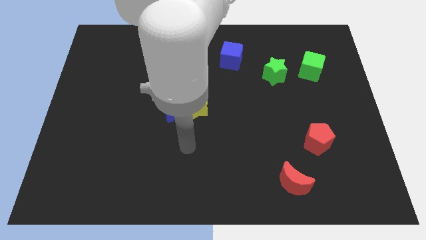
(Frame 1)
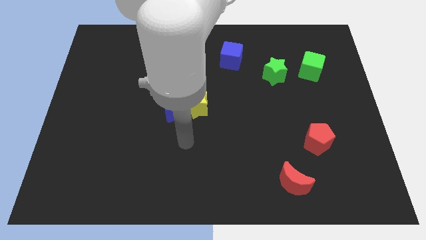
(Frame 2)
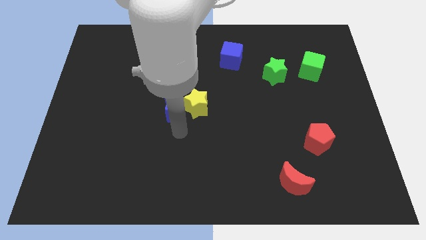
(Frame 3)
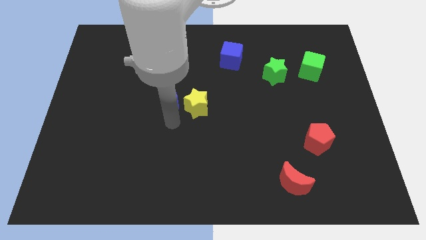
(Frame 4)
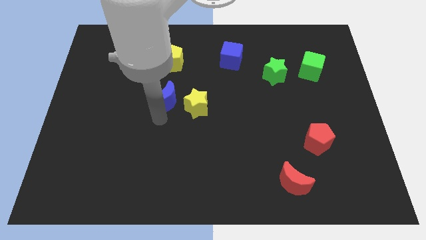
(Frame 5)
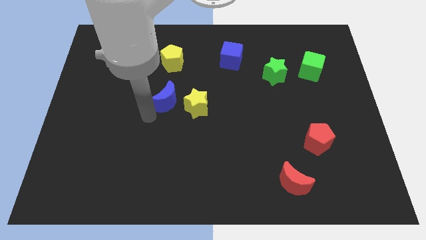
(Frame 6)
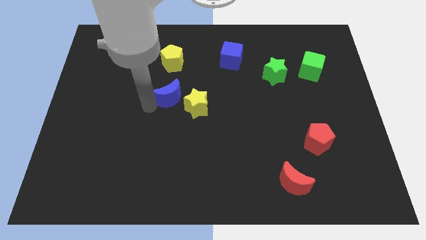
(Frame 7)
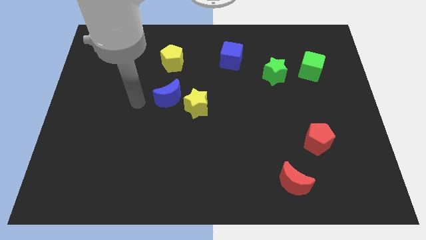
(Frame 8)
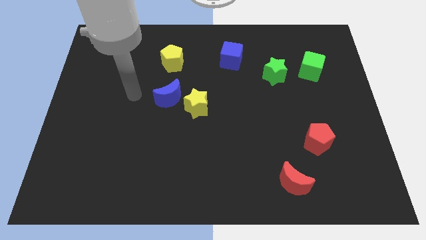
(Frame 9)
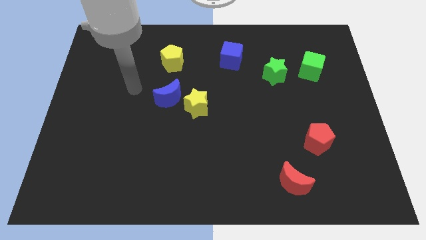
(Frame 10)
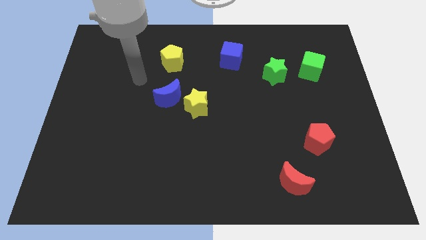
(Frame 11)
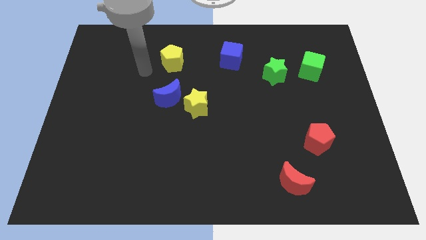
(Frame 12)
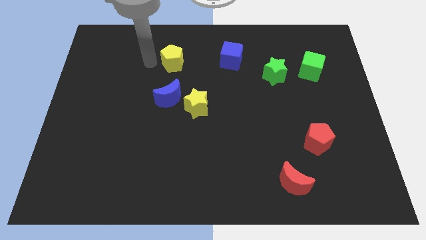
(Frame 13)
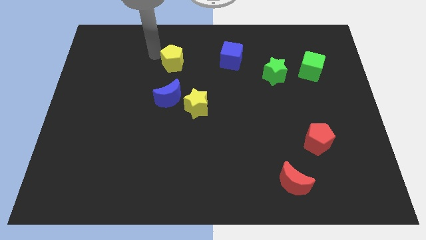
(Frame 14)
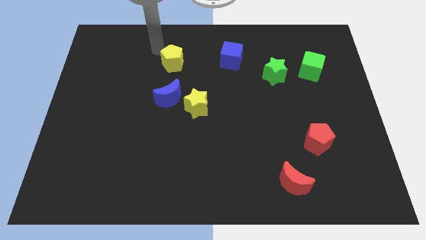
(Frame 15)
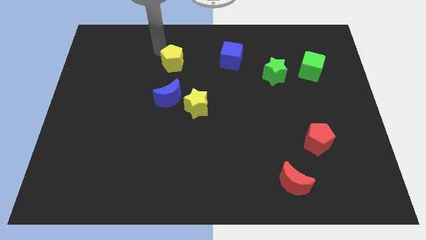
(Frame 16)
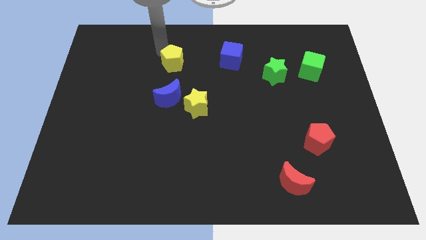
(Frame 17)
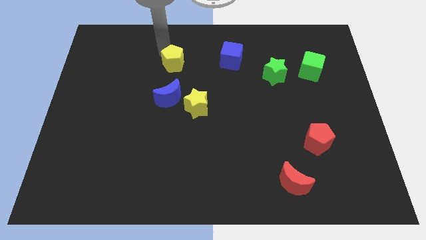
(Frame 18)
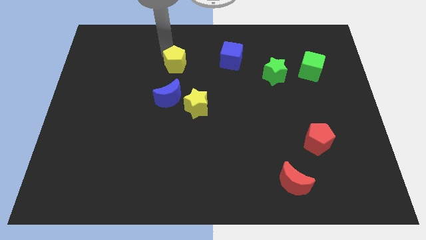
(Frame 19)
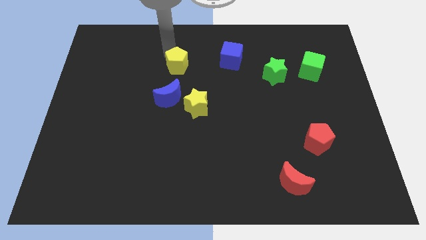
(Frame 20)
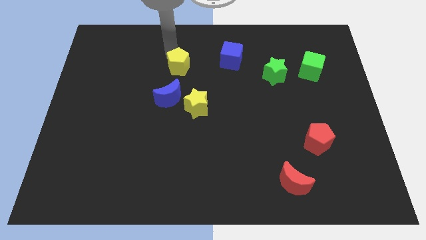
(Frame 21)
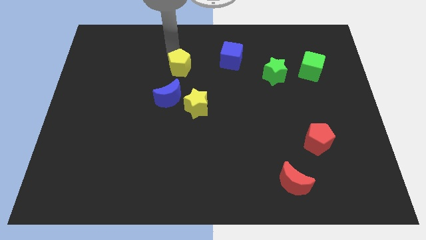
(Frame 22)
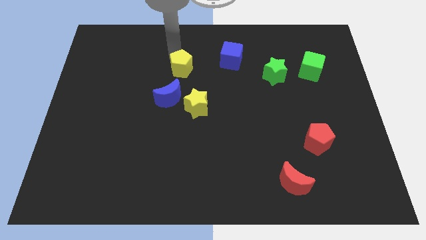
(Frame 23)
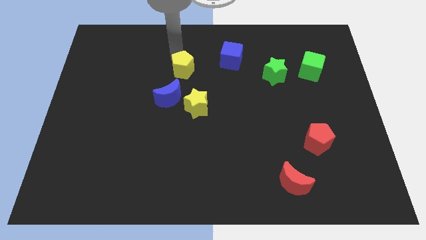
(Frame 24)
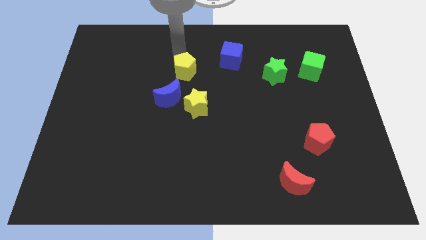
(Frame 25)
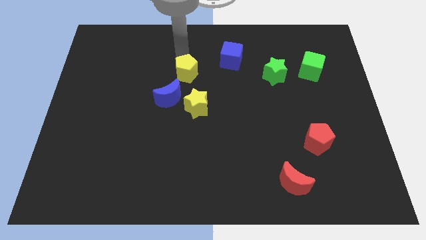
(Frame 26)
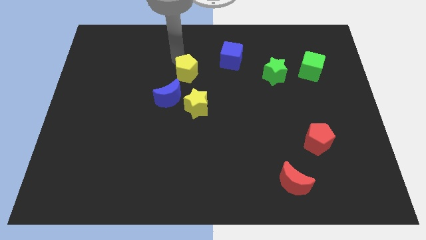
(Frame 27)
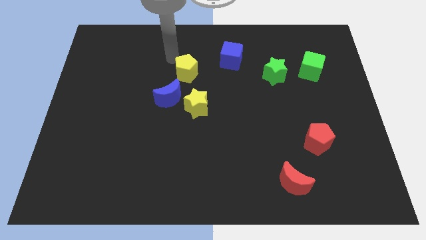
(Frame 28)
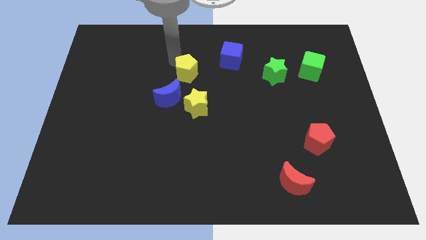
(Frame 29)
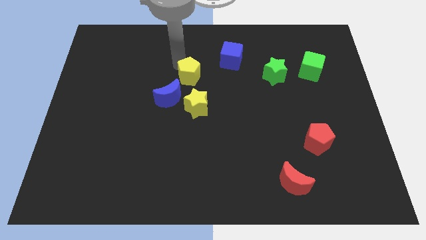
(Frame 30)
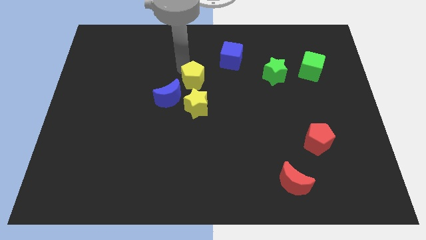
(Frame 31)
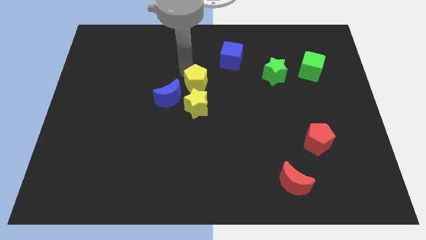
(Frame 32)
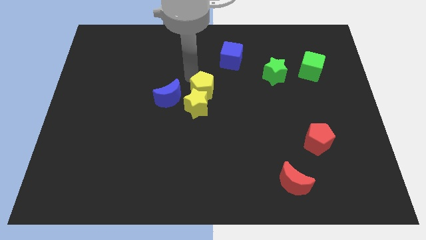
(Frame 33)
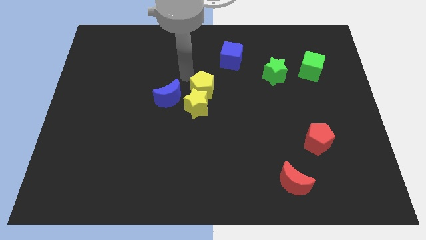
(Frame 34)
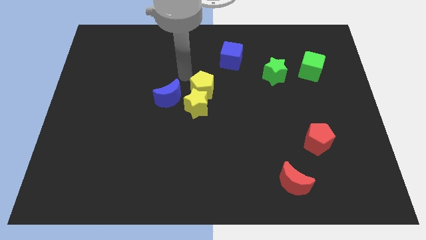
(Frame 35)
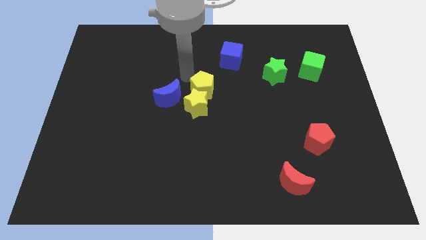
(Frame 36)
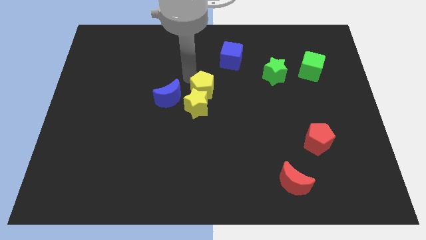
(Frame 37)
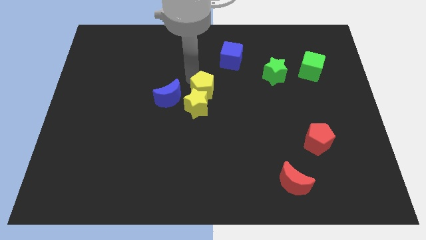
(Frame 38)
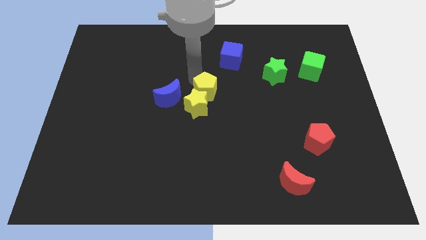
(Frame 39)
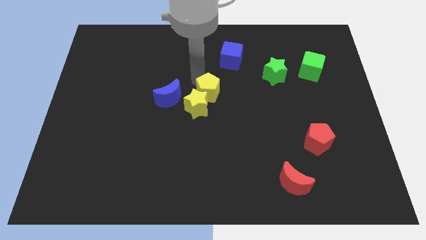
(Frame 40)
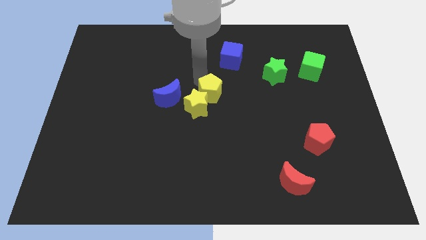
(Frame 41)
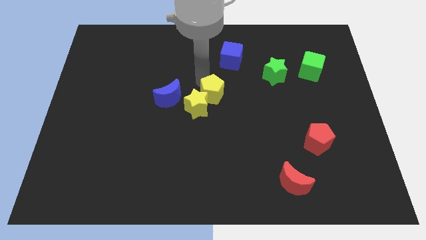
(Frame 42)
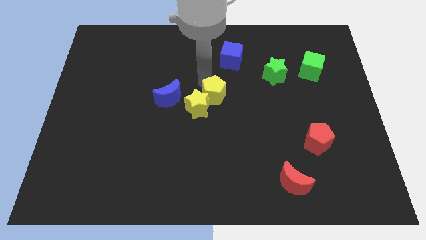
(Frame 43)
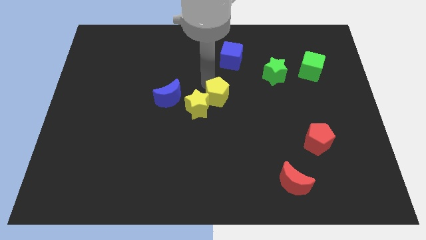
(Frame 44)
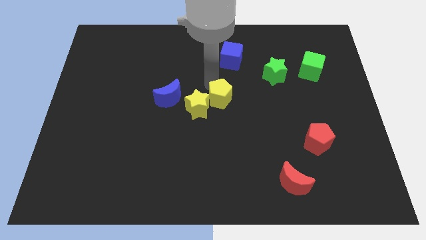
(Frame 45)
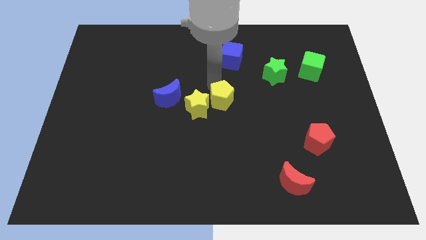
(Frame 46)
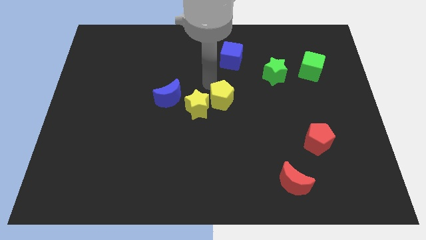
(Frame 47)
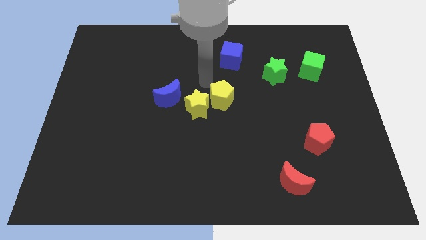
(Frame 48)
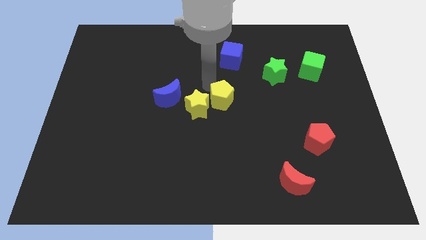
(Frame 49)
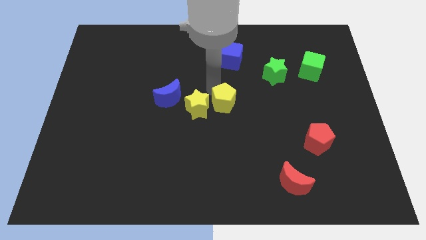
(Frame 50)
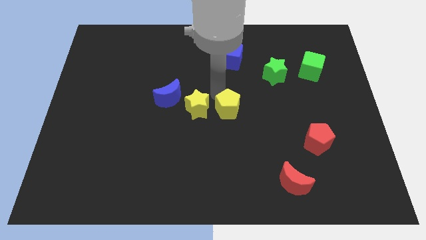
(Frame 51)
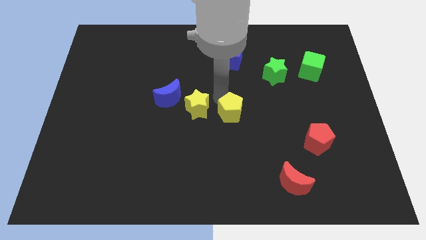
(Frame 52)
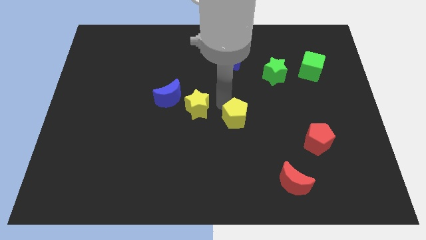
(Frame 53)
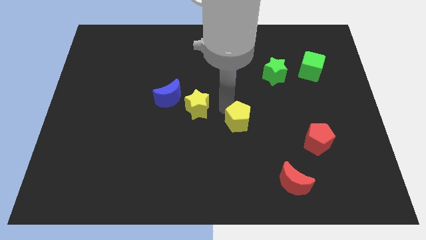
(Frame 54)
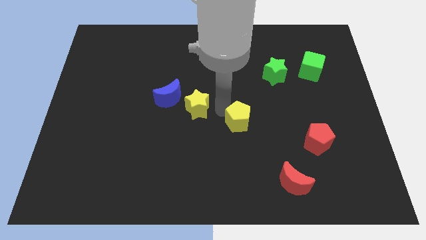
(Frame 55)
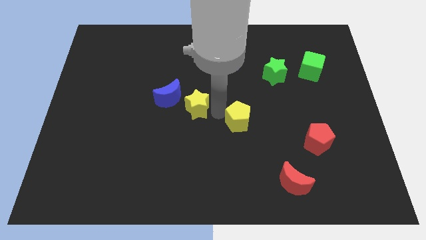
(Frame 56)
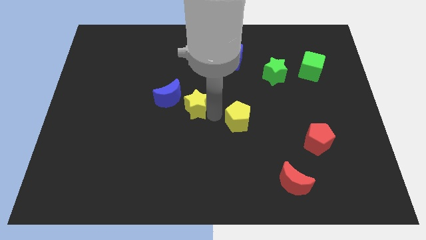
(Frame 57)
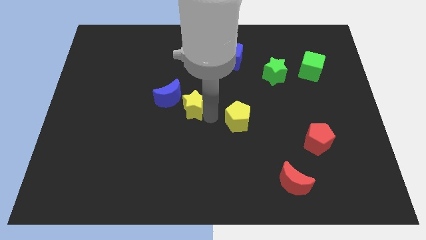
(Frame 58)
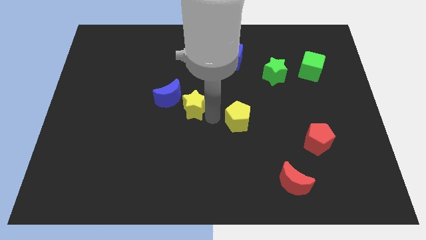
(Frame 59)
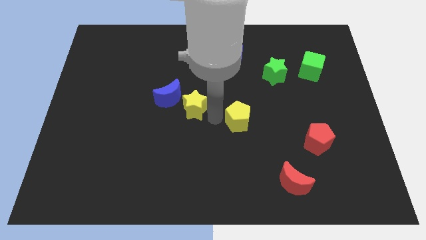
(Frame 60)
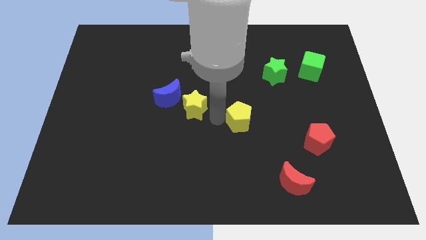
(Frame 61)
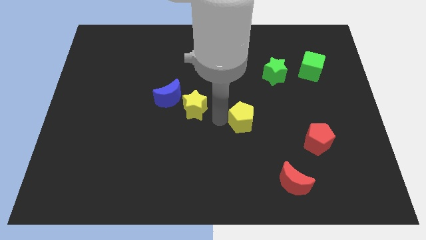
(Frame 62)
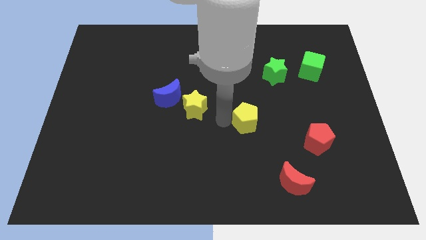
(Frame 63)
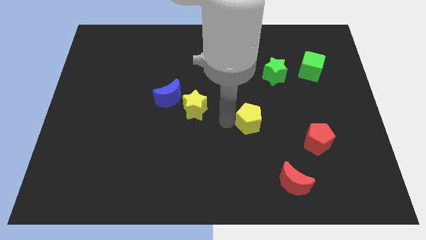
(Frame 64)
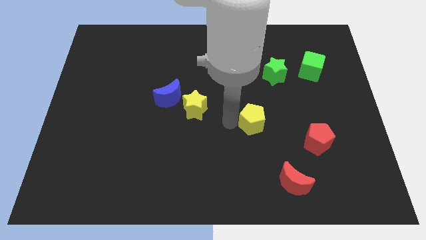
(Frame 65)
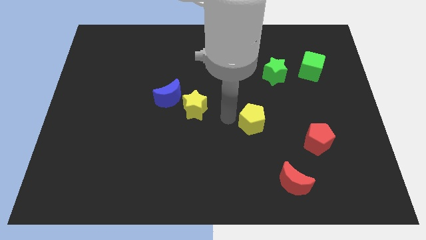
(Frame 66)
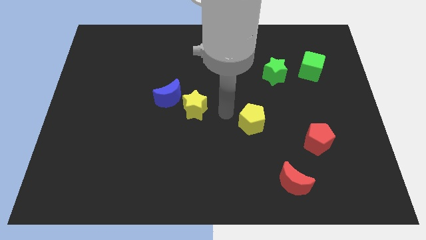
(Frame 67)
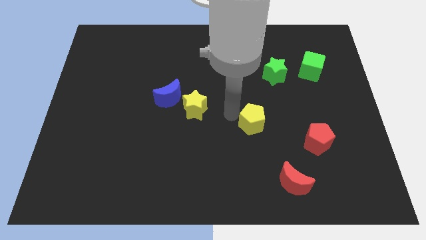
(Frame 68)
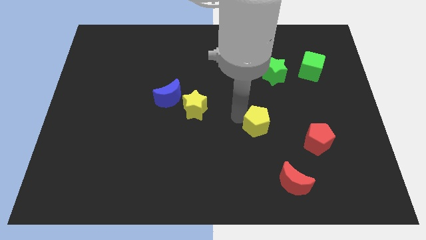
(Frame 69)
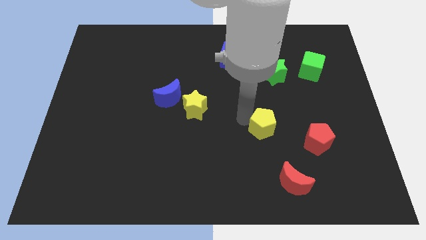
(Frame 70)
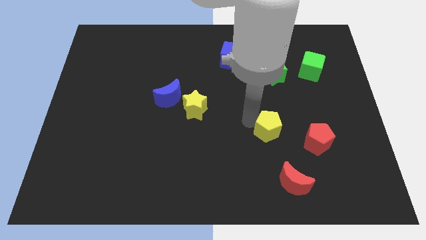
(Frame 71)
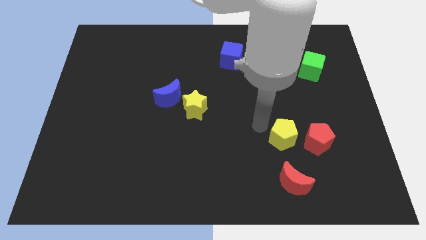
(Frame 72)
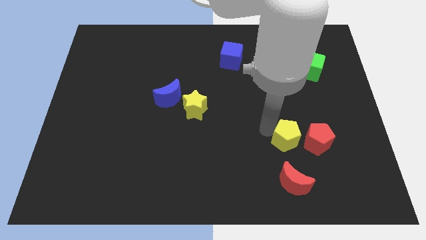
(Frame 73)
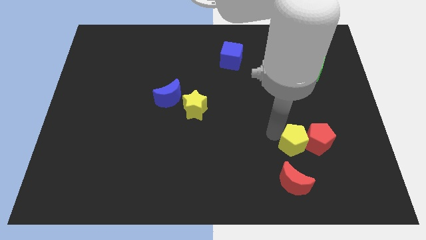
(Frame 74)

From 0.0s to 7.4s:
move the yellow pentagon towards the red pentagon
